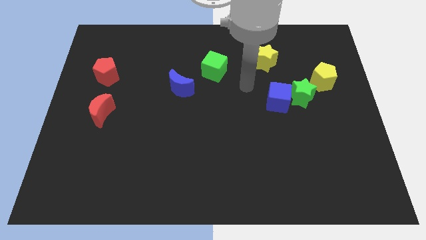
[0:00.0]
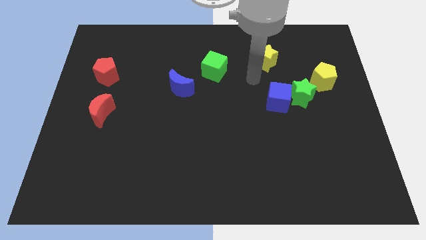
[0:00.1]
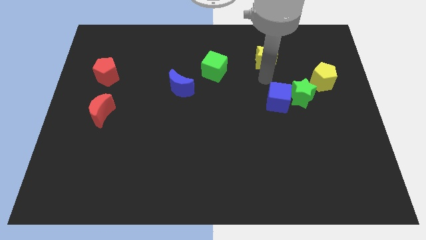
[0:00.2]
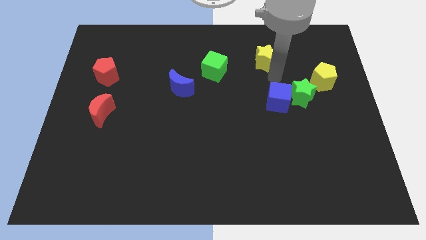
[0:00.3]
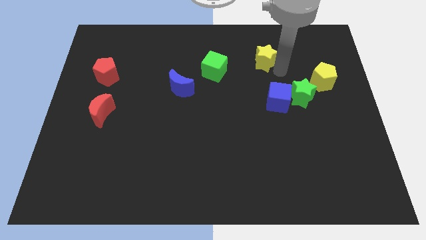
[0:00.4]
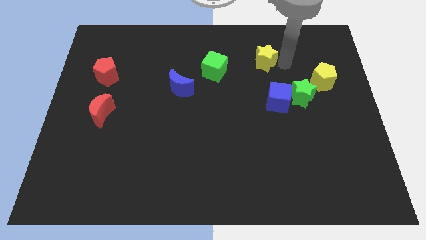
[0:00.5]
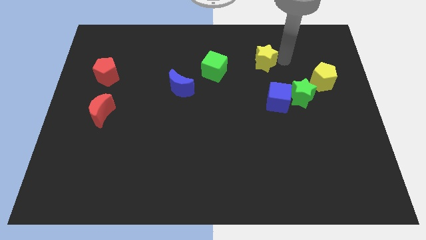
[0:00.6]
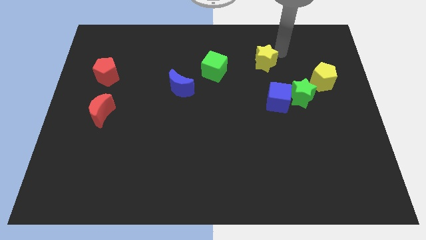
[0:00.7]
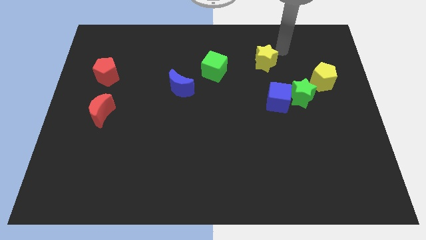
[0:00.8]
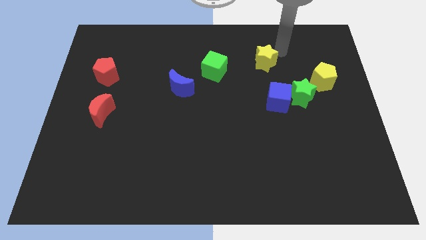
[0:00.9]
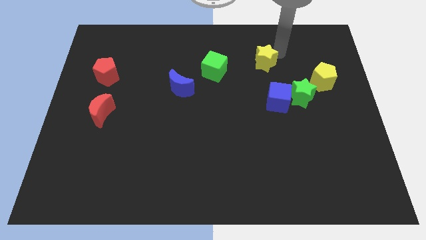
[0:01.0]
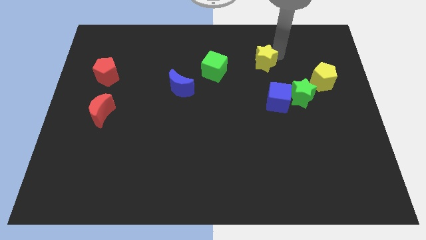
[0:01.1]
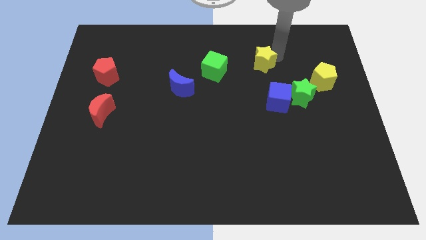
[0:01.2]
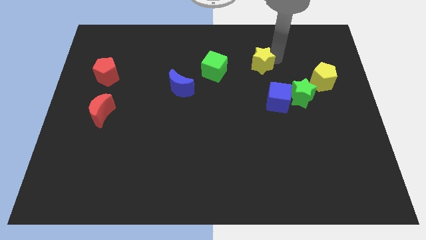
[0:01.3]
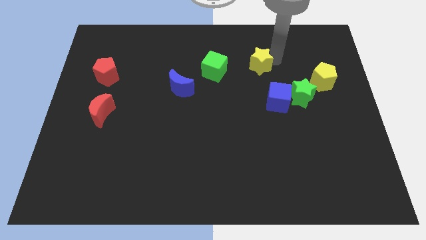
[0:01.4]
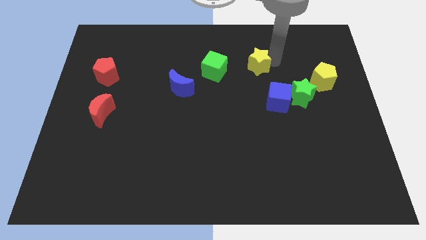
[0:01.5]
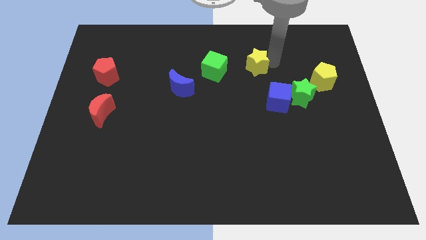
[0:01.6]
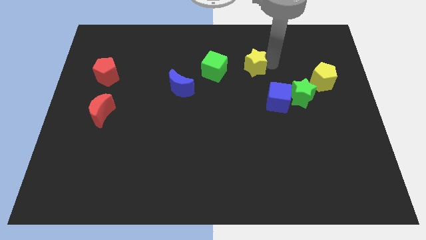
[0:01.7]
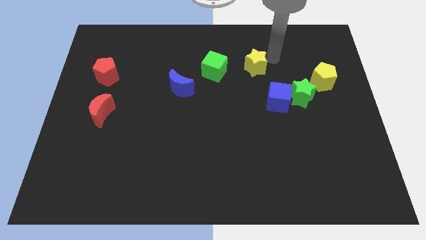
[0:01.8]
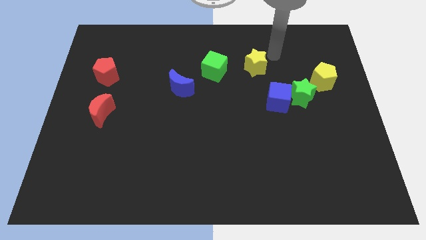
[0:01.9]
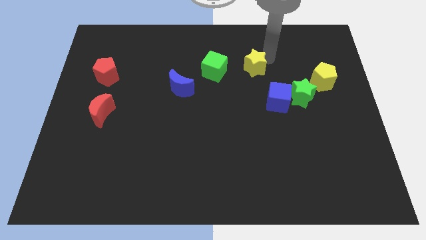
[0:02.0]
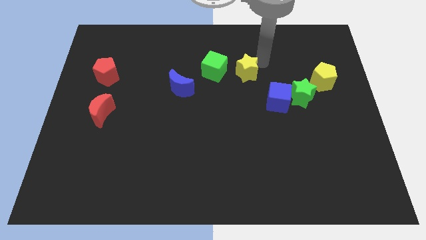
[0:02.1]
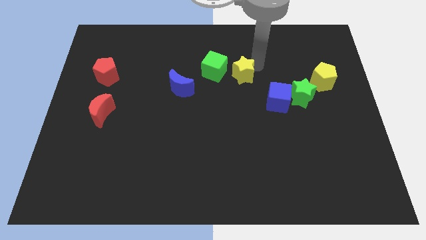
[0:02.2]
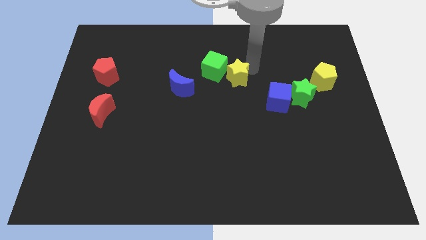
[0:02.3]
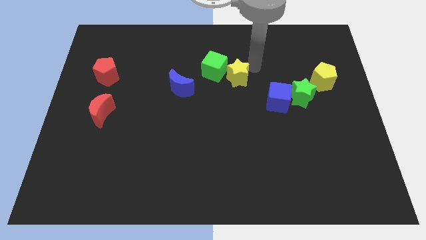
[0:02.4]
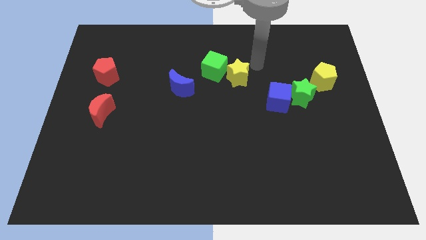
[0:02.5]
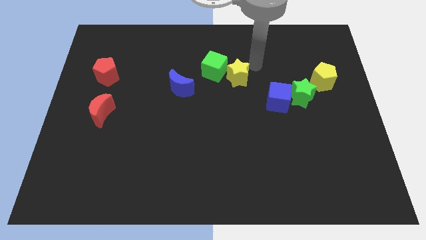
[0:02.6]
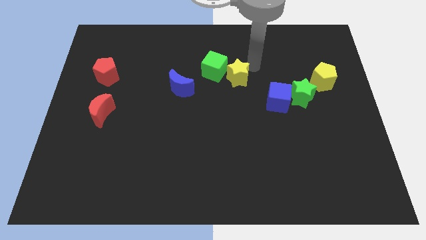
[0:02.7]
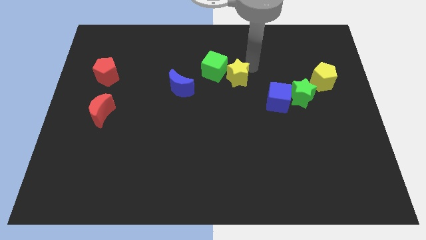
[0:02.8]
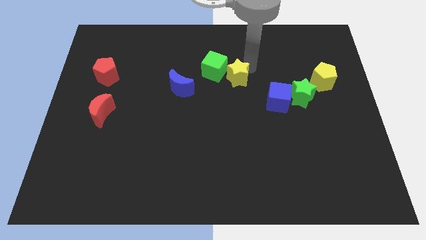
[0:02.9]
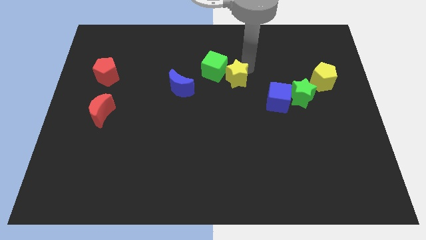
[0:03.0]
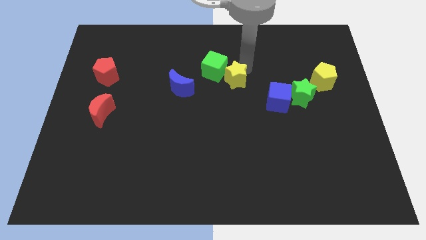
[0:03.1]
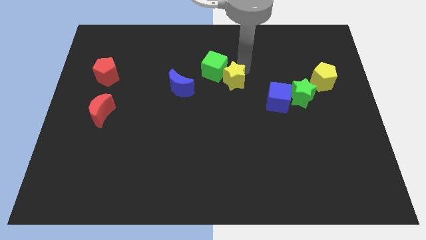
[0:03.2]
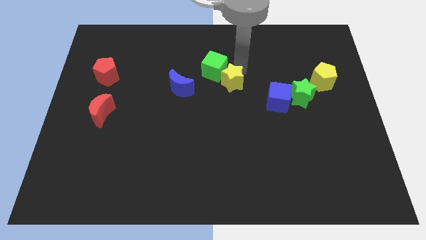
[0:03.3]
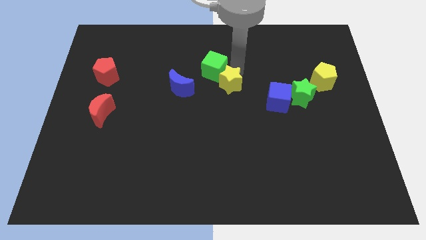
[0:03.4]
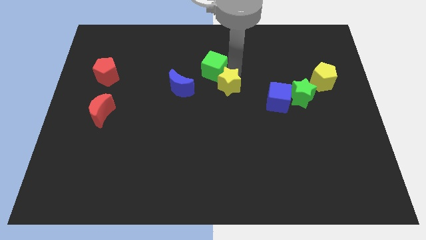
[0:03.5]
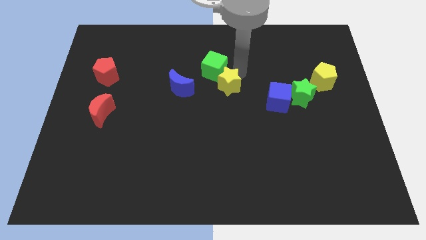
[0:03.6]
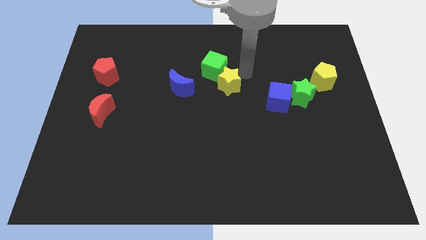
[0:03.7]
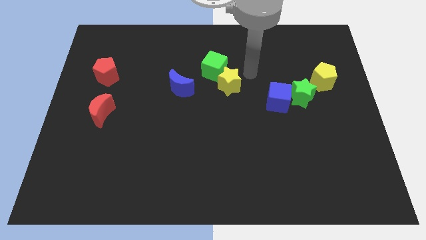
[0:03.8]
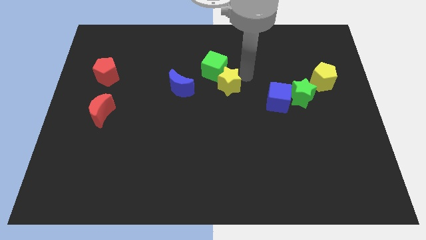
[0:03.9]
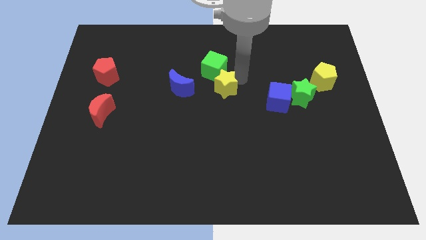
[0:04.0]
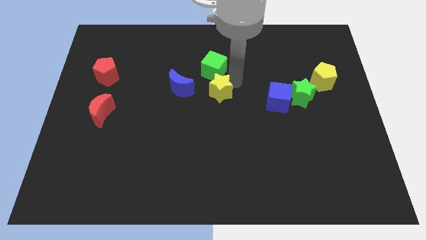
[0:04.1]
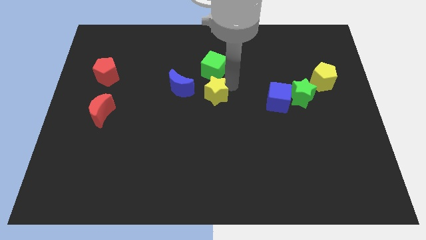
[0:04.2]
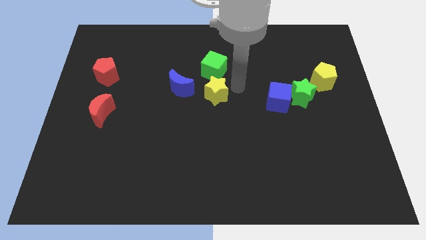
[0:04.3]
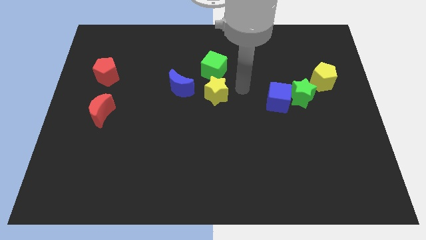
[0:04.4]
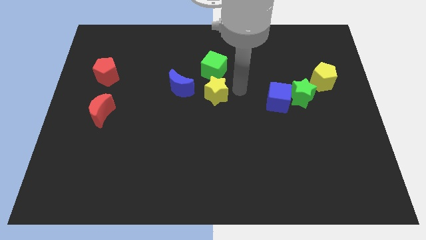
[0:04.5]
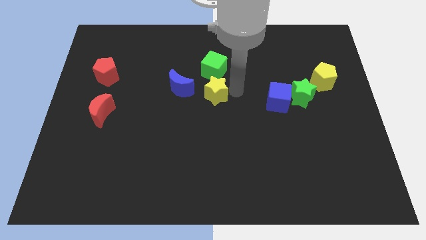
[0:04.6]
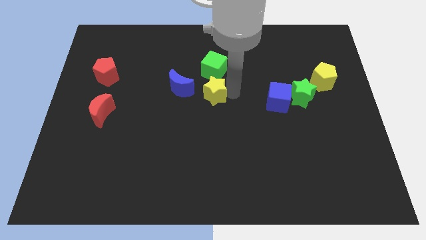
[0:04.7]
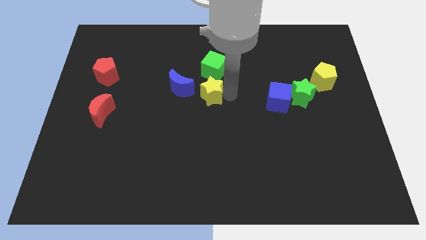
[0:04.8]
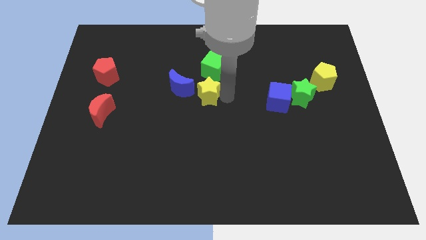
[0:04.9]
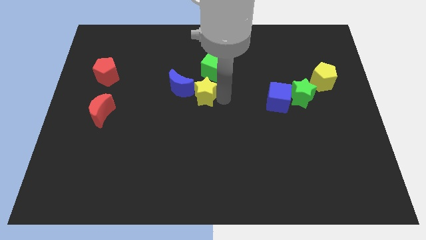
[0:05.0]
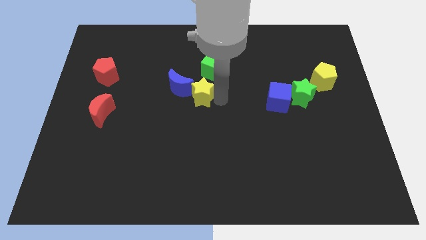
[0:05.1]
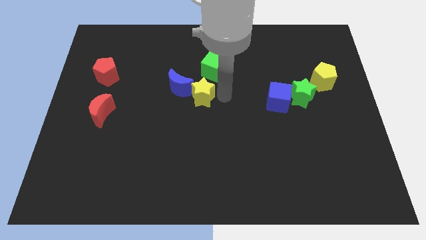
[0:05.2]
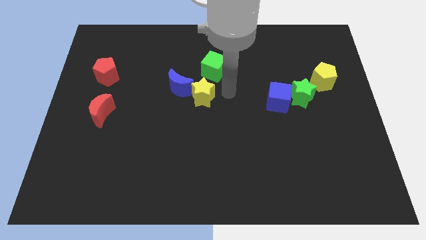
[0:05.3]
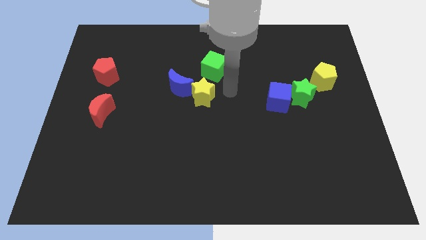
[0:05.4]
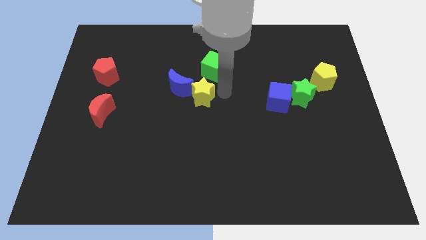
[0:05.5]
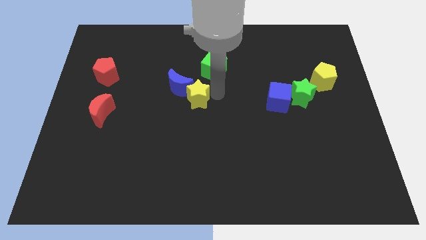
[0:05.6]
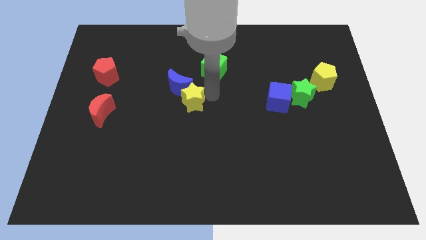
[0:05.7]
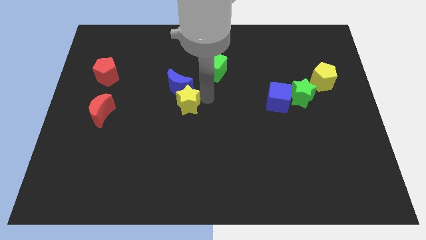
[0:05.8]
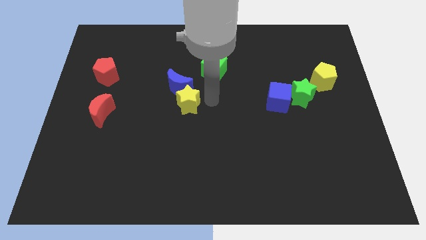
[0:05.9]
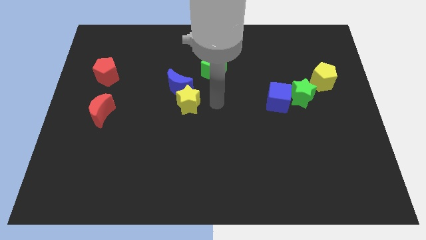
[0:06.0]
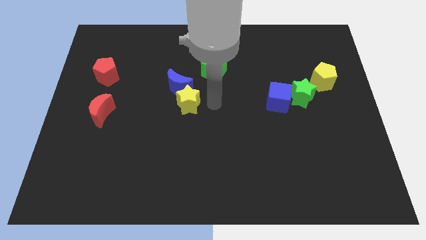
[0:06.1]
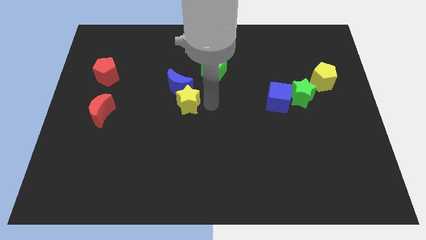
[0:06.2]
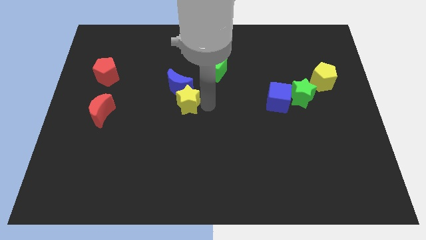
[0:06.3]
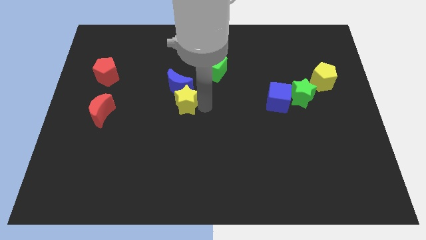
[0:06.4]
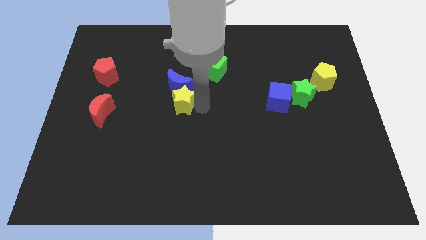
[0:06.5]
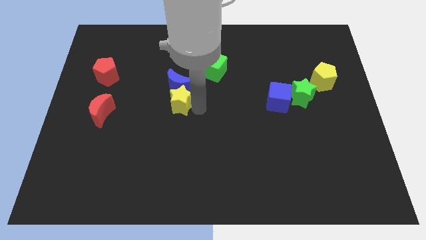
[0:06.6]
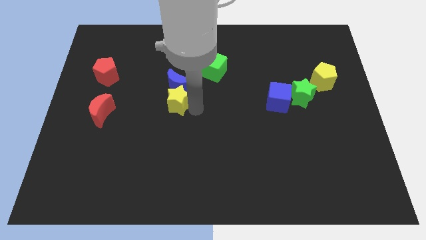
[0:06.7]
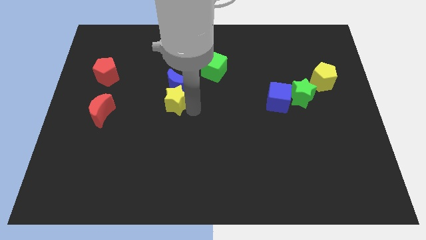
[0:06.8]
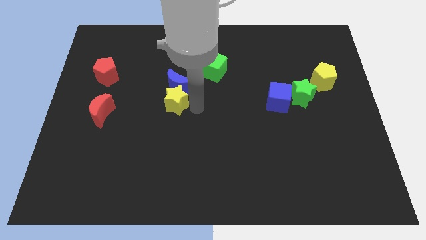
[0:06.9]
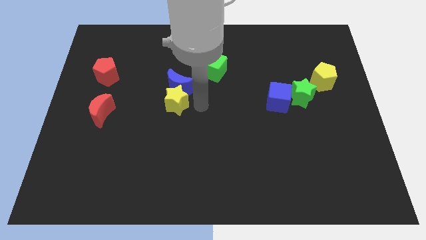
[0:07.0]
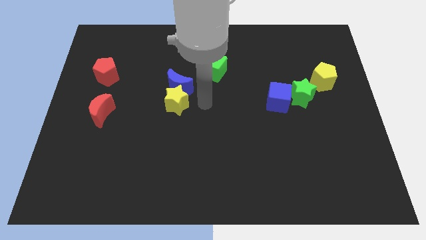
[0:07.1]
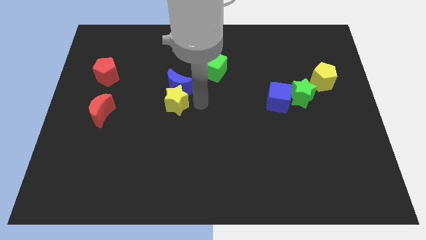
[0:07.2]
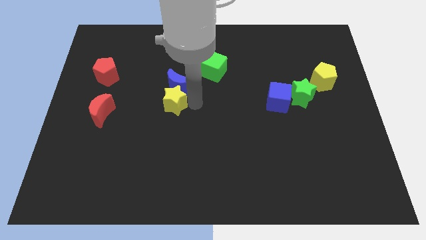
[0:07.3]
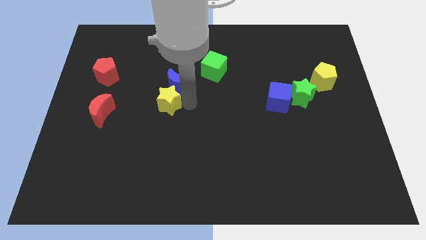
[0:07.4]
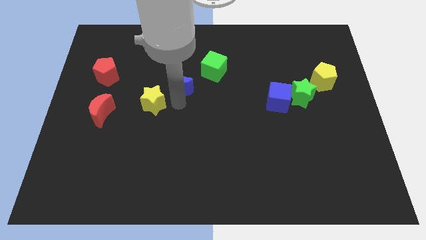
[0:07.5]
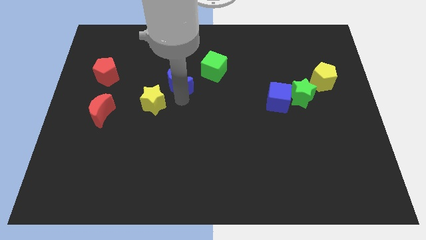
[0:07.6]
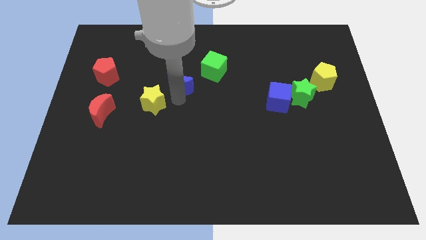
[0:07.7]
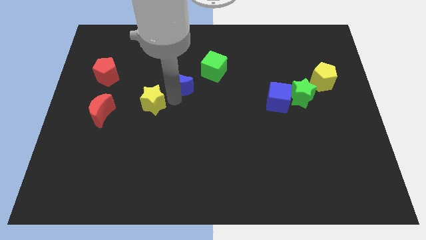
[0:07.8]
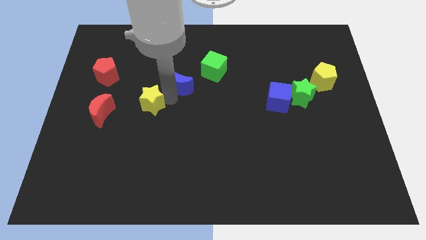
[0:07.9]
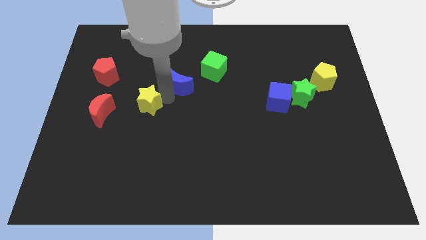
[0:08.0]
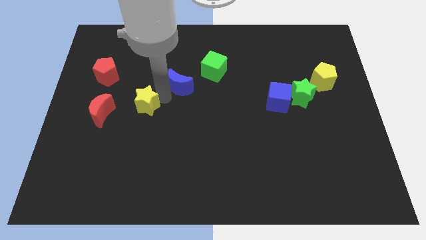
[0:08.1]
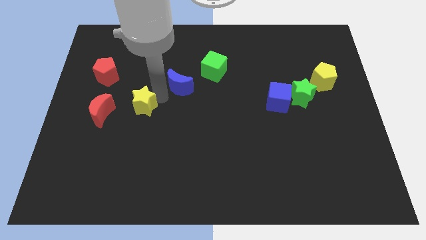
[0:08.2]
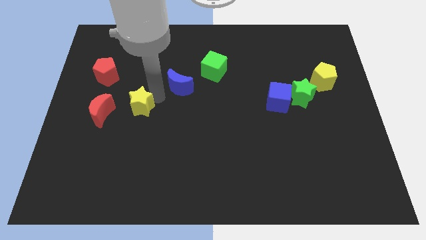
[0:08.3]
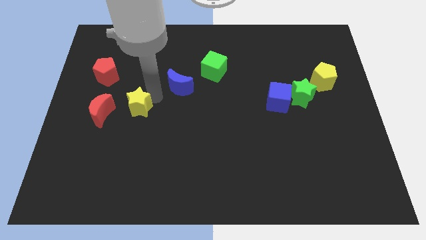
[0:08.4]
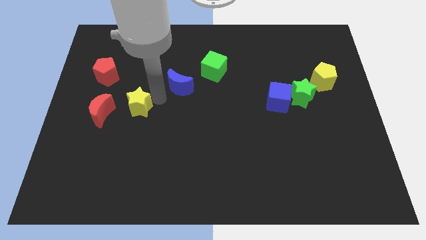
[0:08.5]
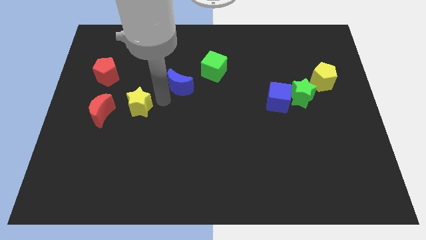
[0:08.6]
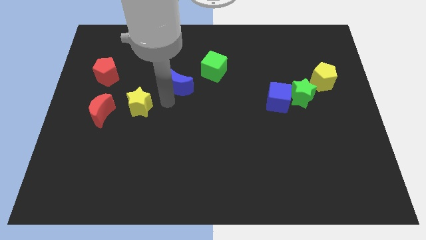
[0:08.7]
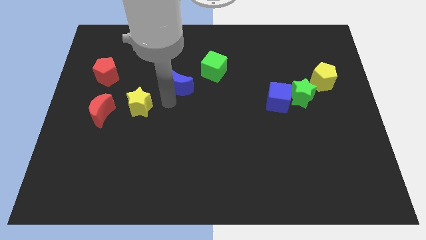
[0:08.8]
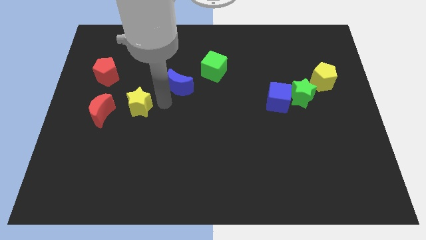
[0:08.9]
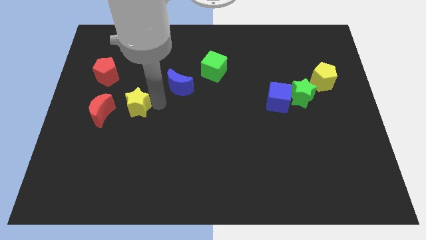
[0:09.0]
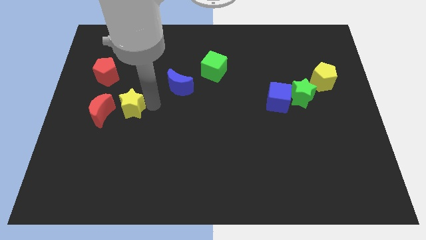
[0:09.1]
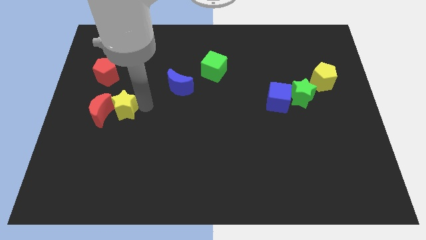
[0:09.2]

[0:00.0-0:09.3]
push the yellow star close to the red moon
